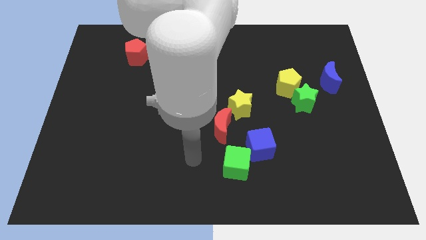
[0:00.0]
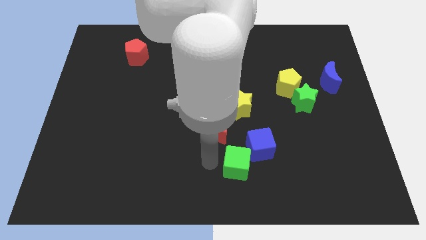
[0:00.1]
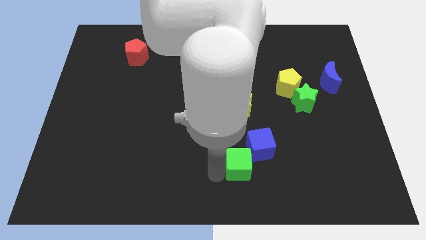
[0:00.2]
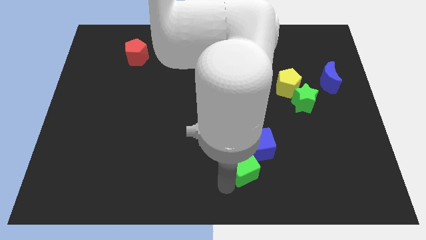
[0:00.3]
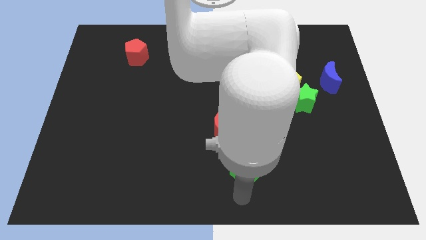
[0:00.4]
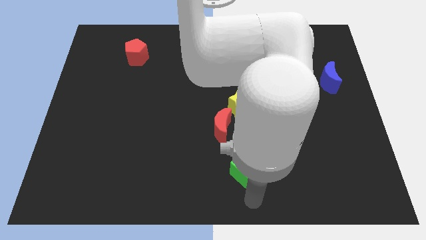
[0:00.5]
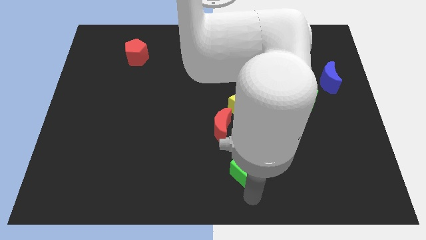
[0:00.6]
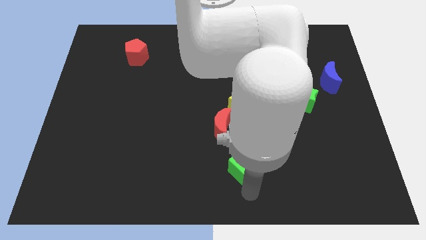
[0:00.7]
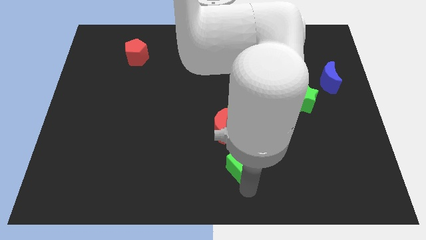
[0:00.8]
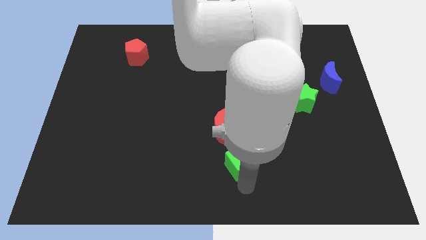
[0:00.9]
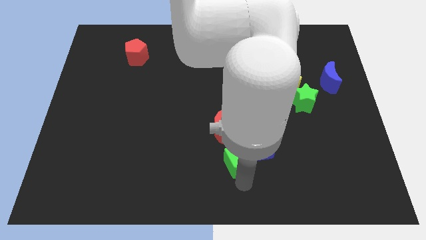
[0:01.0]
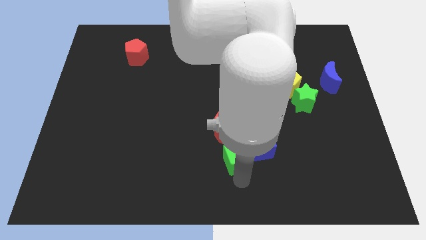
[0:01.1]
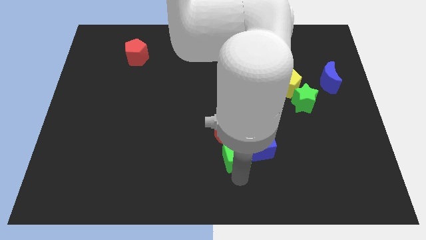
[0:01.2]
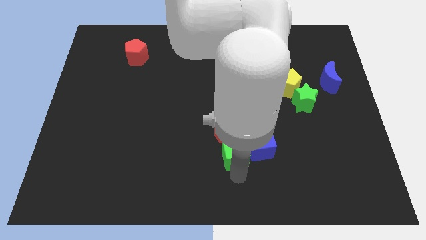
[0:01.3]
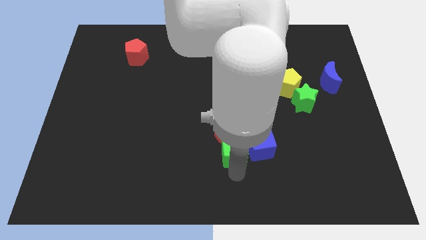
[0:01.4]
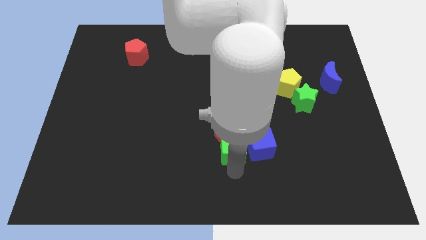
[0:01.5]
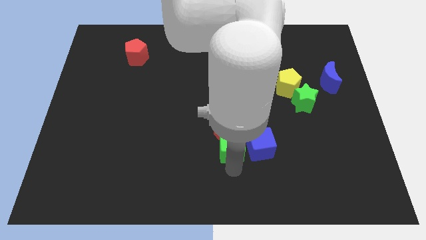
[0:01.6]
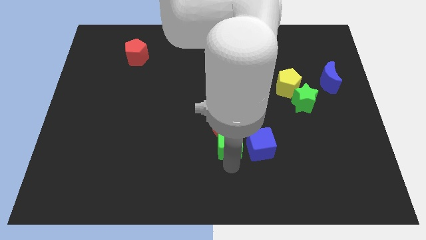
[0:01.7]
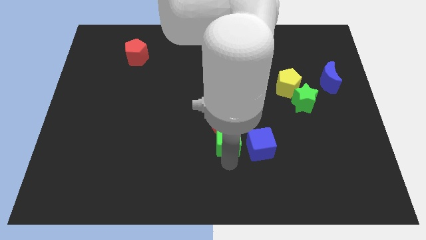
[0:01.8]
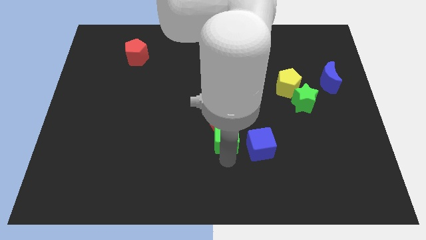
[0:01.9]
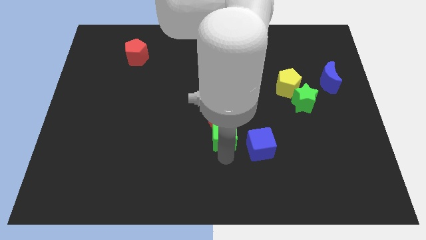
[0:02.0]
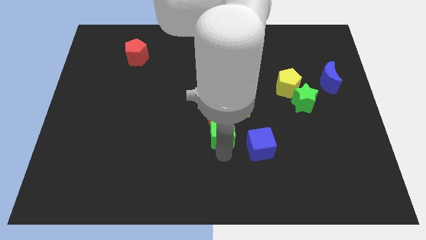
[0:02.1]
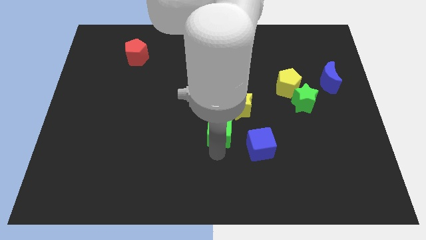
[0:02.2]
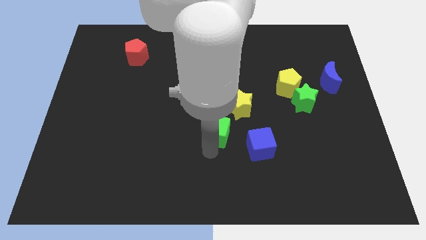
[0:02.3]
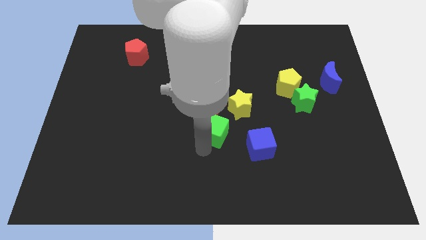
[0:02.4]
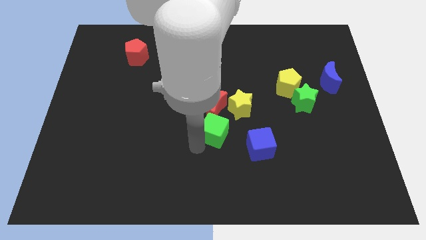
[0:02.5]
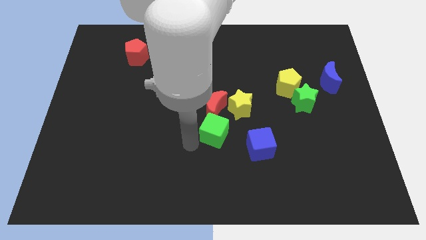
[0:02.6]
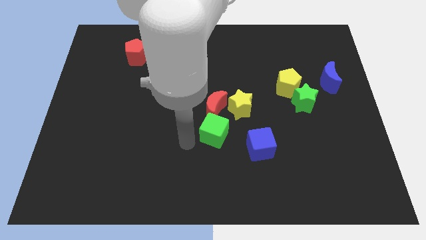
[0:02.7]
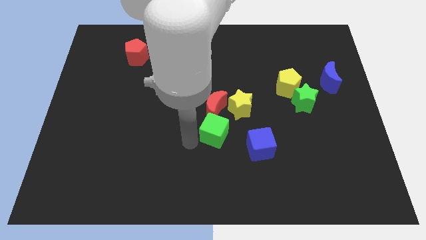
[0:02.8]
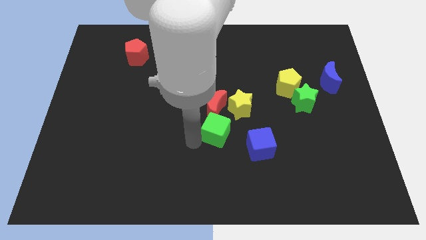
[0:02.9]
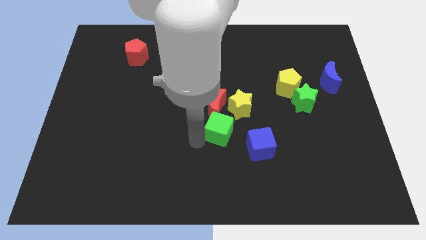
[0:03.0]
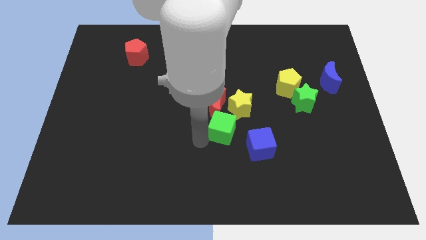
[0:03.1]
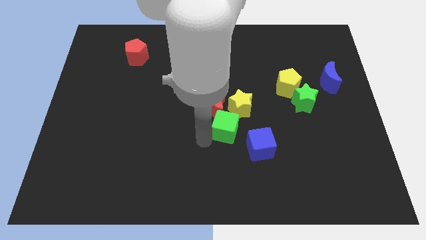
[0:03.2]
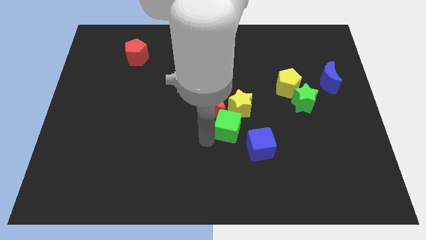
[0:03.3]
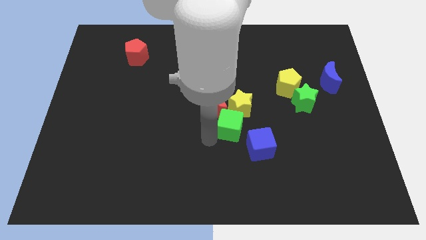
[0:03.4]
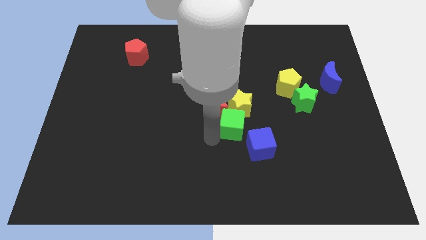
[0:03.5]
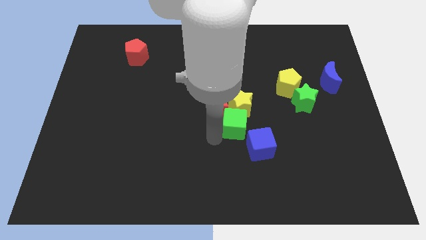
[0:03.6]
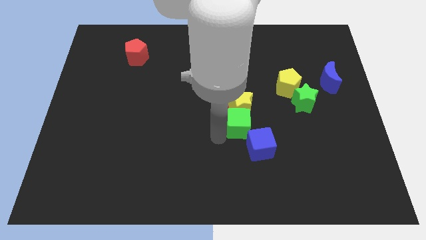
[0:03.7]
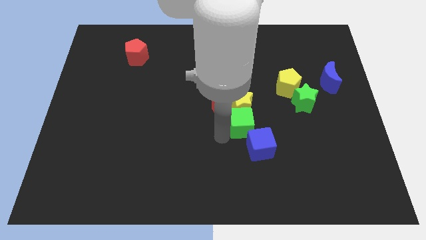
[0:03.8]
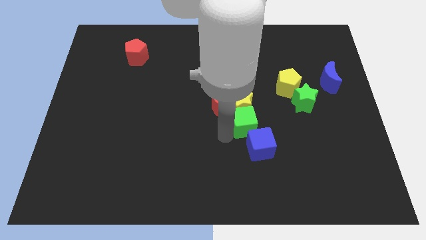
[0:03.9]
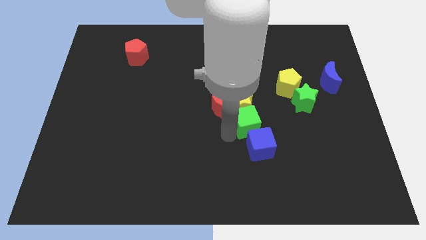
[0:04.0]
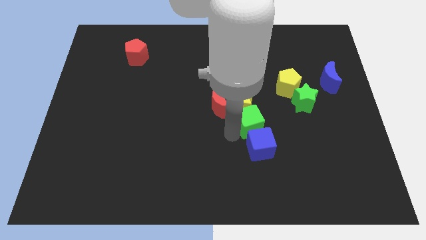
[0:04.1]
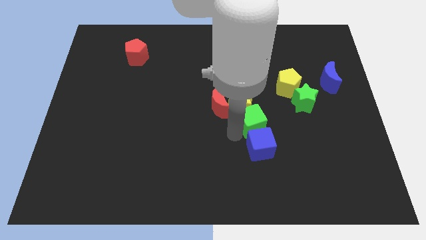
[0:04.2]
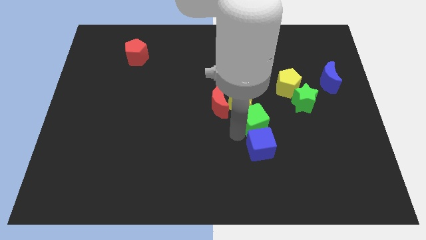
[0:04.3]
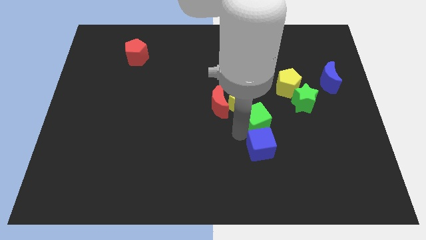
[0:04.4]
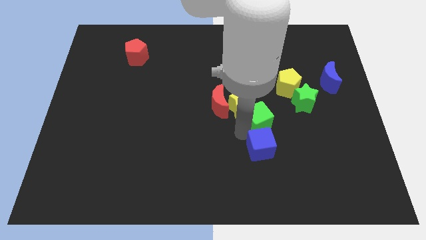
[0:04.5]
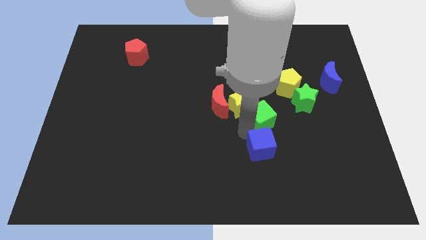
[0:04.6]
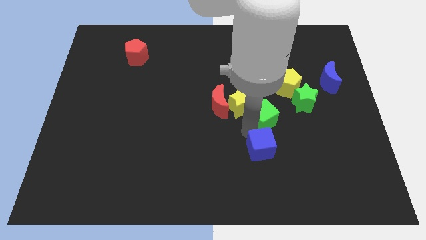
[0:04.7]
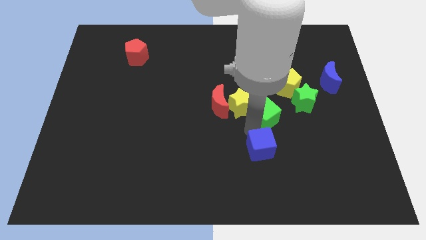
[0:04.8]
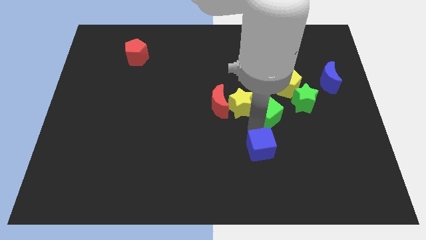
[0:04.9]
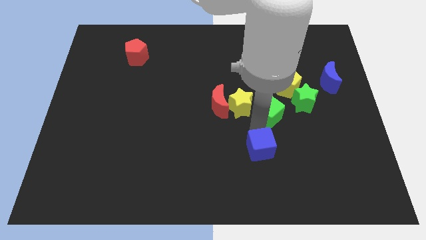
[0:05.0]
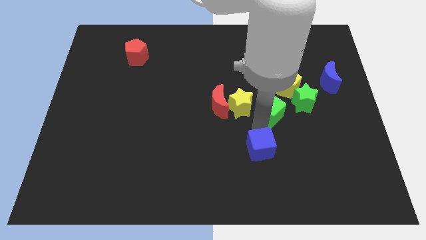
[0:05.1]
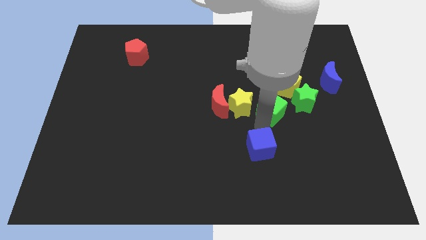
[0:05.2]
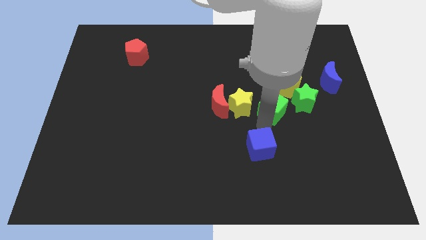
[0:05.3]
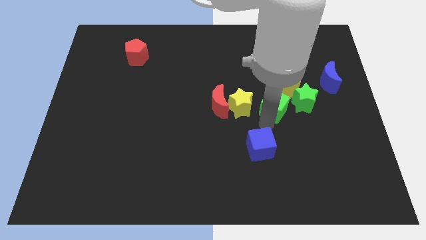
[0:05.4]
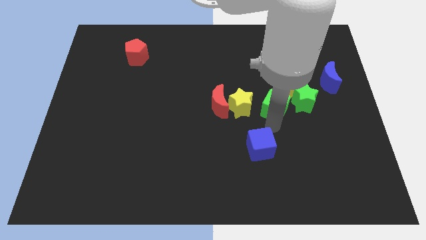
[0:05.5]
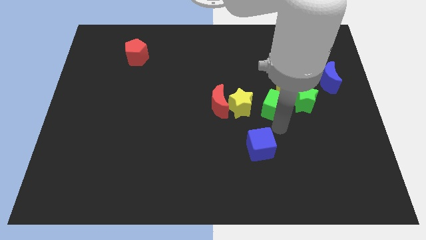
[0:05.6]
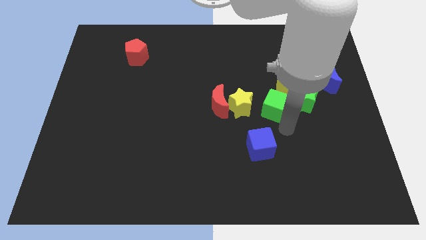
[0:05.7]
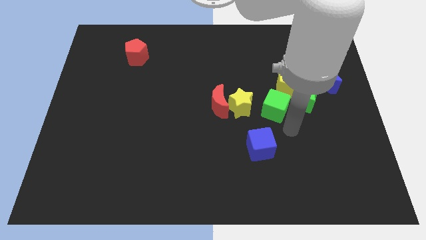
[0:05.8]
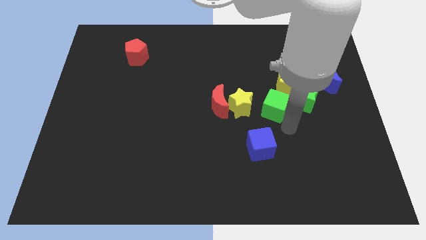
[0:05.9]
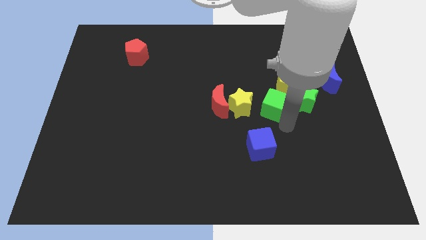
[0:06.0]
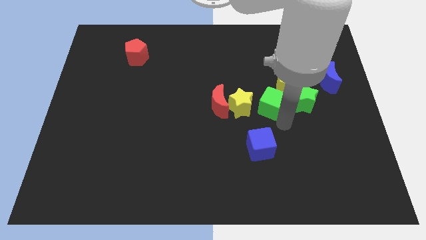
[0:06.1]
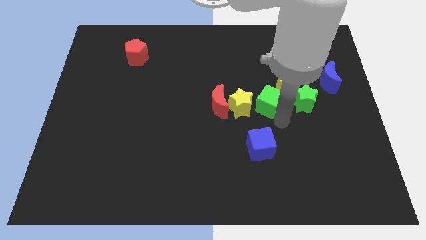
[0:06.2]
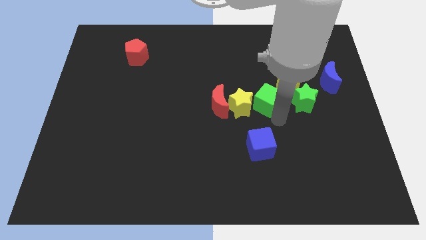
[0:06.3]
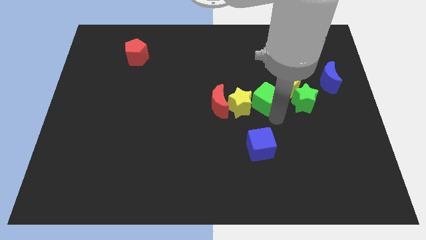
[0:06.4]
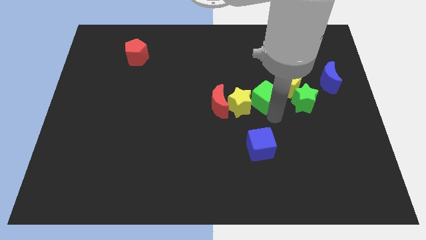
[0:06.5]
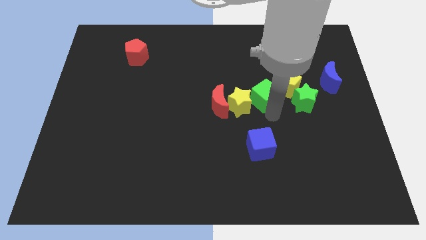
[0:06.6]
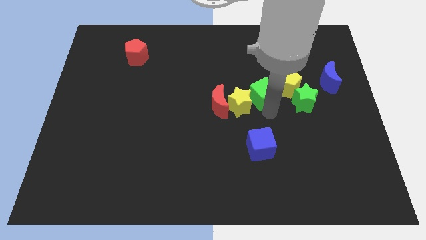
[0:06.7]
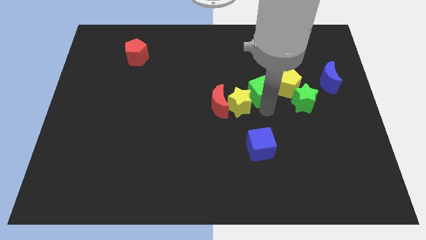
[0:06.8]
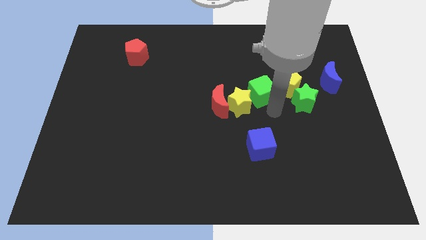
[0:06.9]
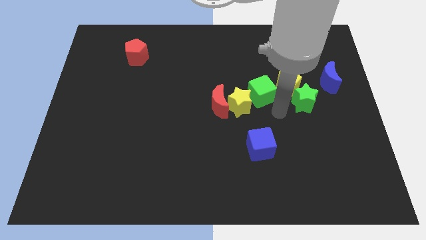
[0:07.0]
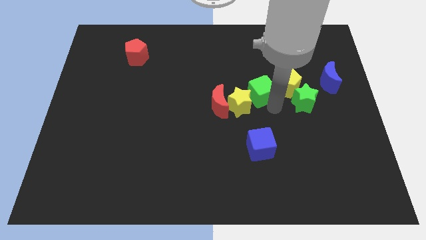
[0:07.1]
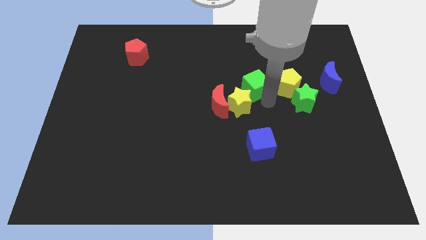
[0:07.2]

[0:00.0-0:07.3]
put the green cube to the top side of the yellow star
